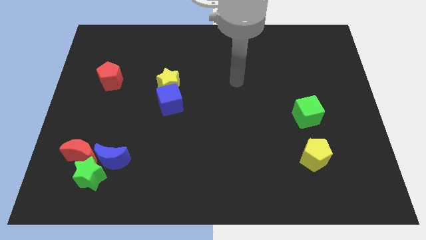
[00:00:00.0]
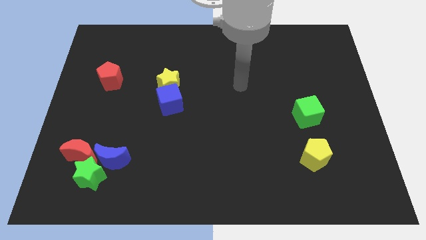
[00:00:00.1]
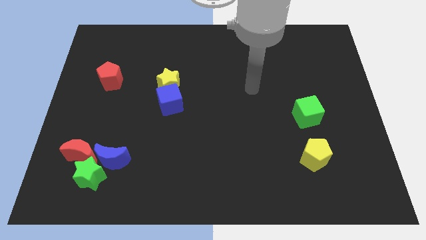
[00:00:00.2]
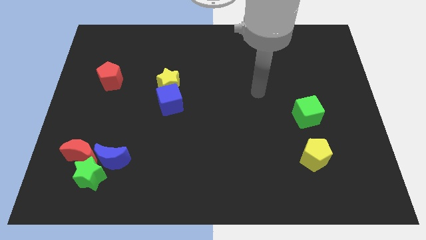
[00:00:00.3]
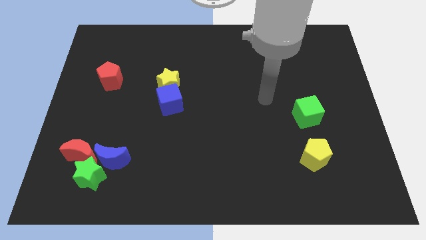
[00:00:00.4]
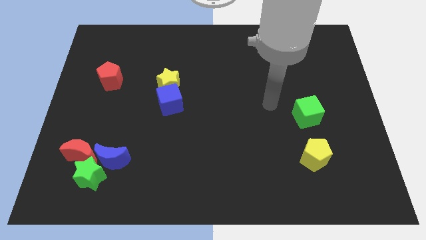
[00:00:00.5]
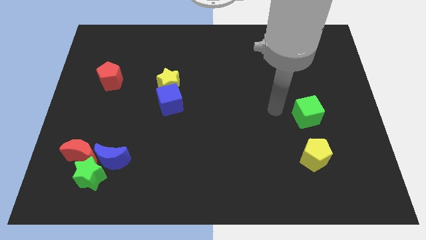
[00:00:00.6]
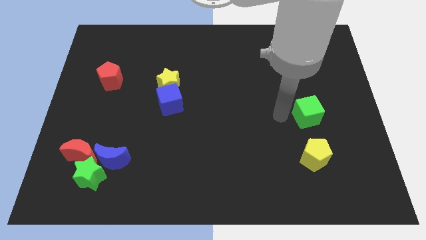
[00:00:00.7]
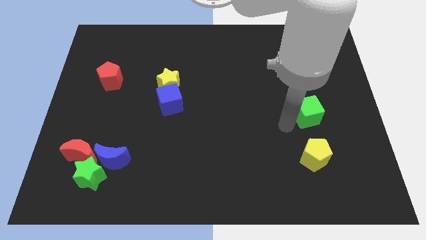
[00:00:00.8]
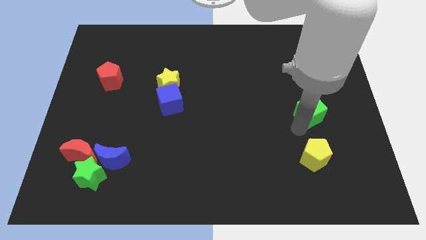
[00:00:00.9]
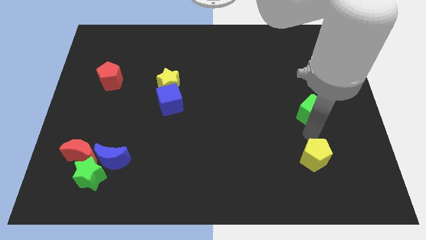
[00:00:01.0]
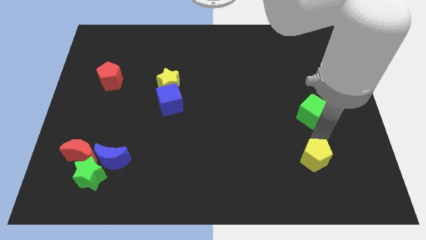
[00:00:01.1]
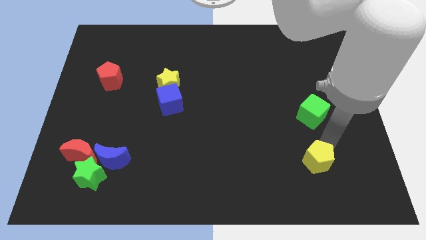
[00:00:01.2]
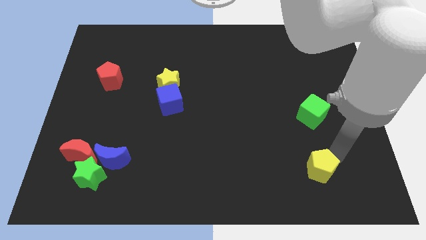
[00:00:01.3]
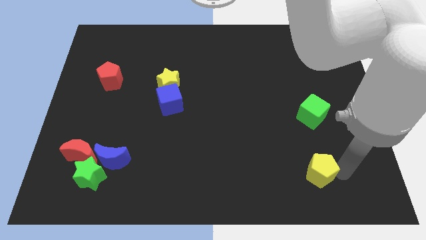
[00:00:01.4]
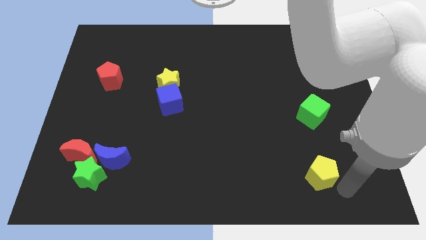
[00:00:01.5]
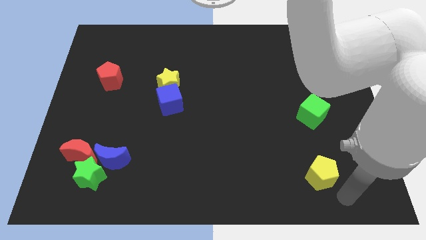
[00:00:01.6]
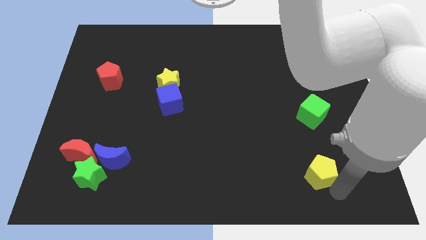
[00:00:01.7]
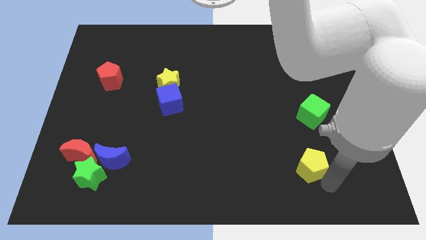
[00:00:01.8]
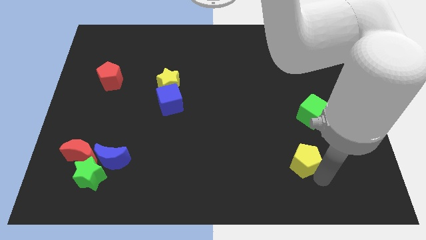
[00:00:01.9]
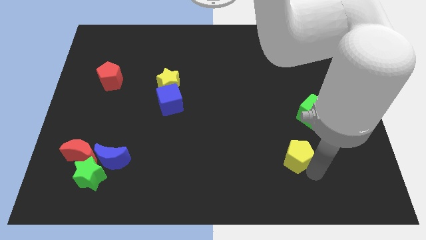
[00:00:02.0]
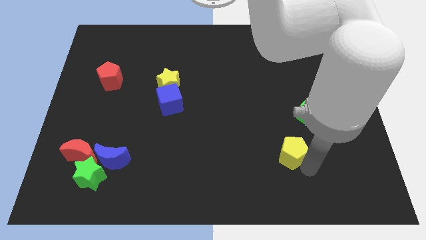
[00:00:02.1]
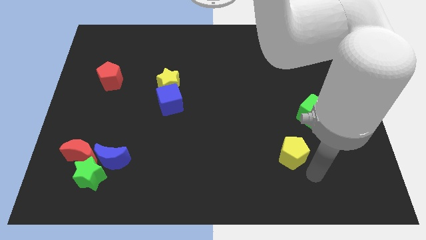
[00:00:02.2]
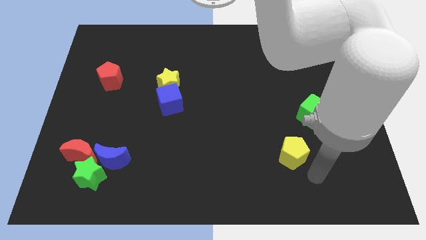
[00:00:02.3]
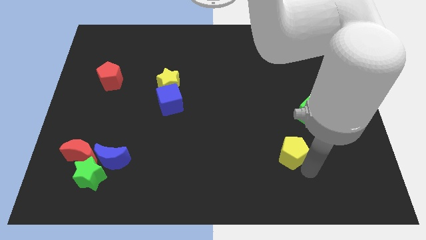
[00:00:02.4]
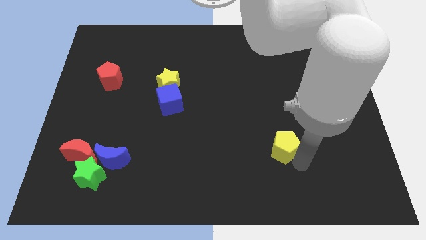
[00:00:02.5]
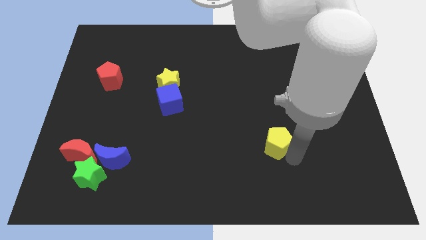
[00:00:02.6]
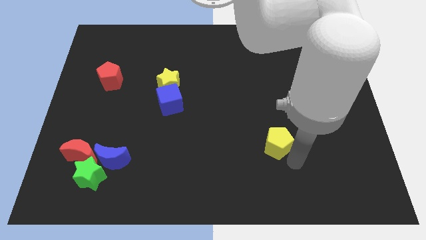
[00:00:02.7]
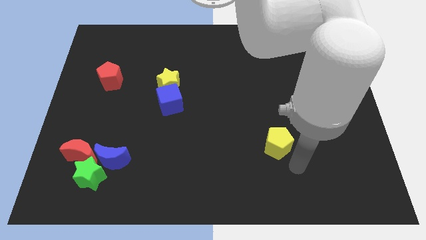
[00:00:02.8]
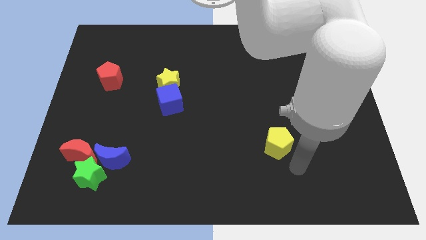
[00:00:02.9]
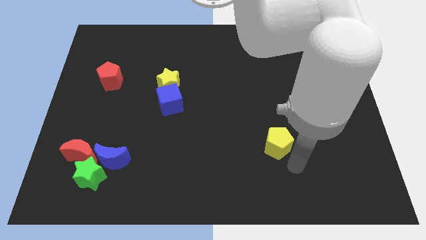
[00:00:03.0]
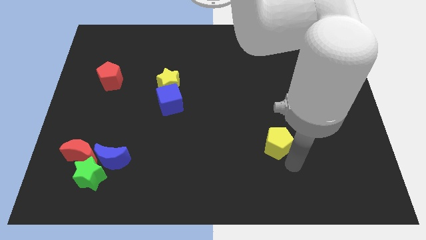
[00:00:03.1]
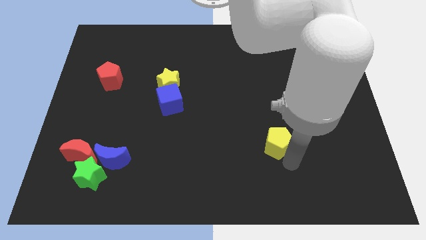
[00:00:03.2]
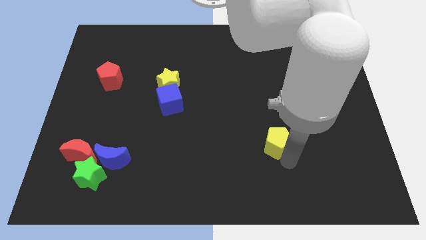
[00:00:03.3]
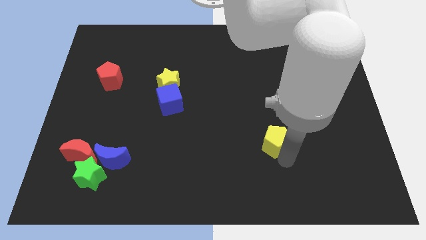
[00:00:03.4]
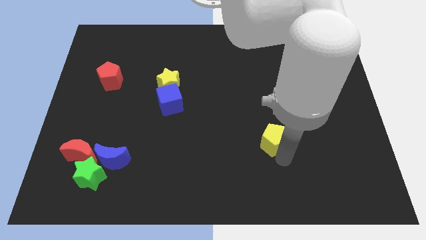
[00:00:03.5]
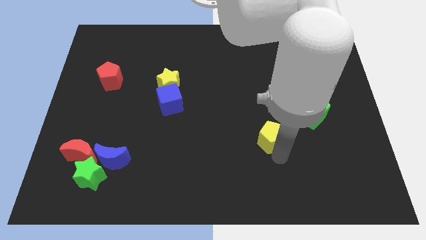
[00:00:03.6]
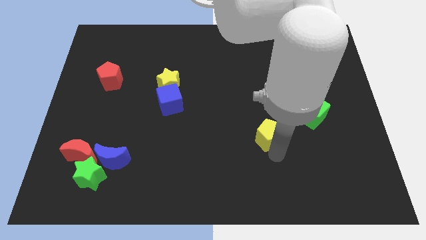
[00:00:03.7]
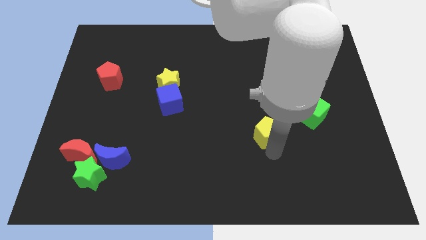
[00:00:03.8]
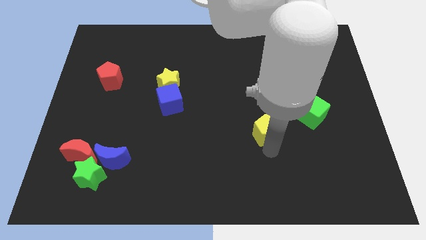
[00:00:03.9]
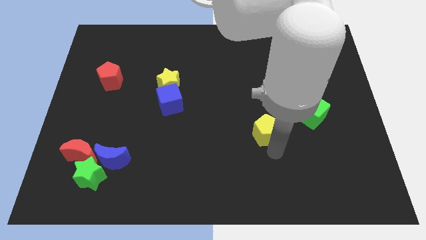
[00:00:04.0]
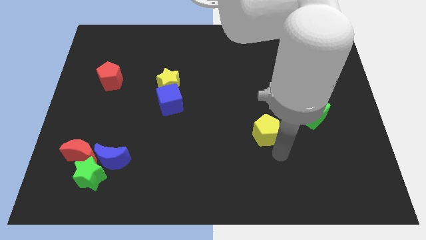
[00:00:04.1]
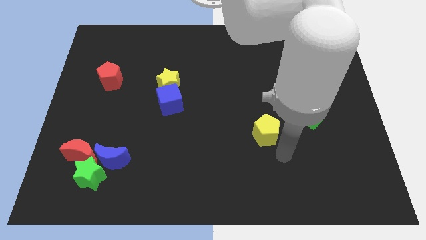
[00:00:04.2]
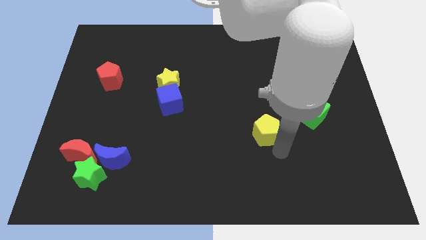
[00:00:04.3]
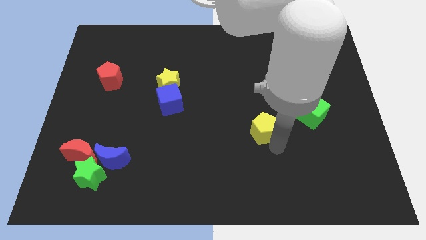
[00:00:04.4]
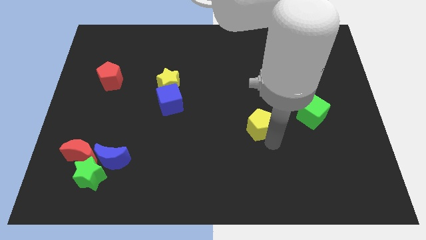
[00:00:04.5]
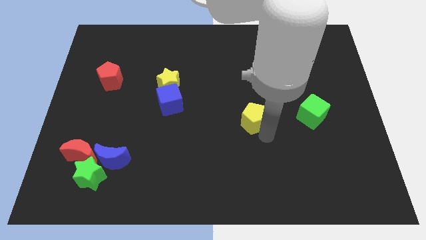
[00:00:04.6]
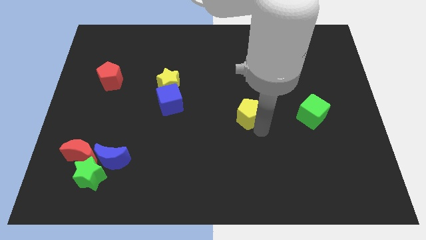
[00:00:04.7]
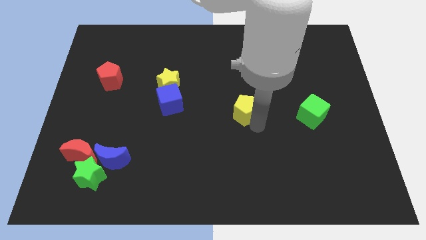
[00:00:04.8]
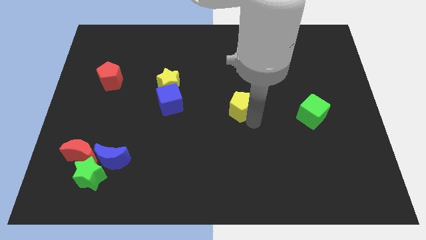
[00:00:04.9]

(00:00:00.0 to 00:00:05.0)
push the yellow pentagon diagonally up and to the left

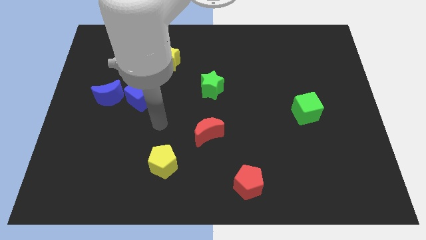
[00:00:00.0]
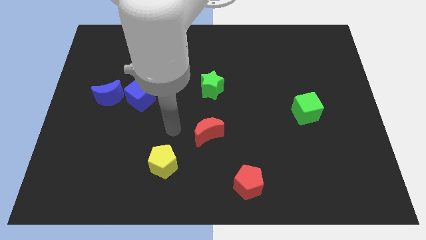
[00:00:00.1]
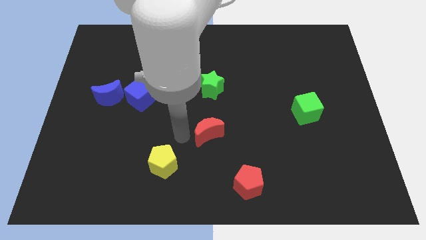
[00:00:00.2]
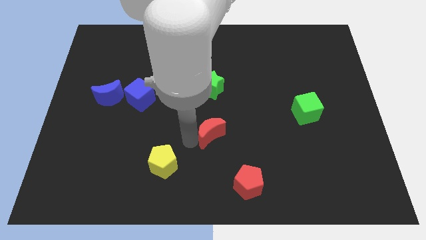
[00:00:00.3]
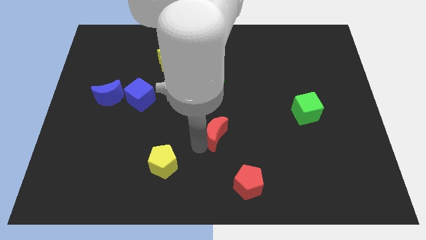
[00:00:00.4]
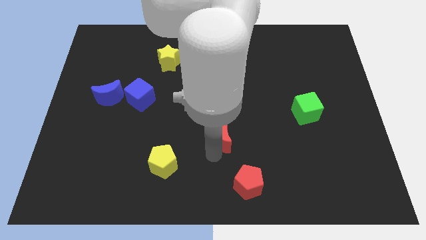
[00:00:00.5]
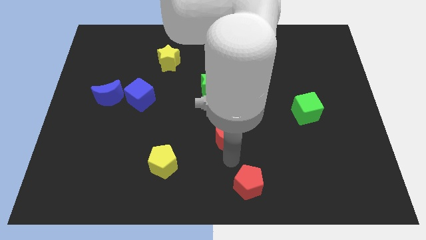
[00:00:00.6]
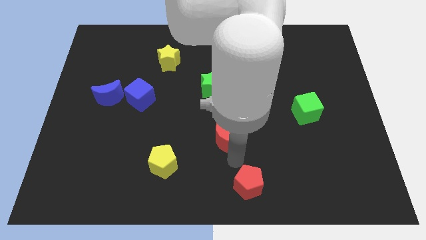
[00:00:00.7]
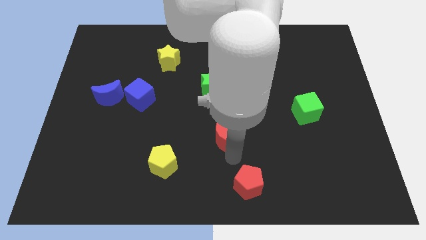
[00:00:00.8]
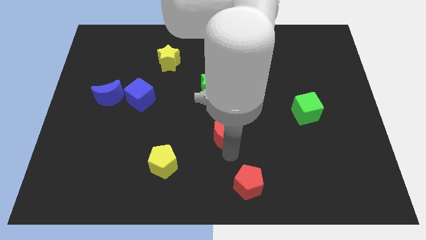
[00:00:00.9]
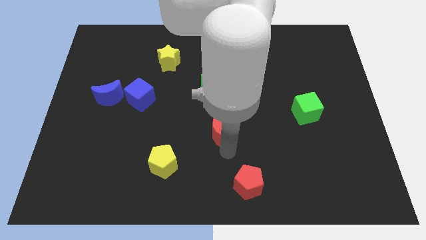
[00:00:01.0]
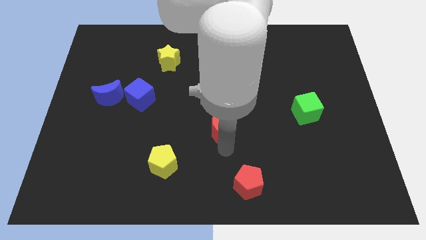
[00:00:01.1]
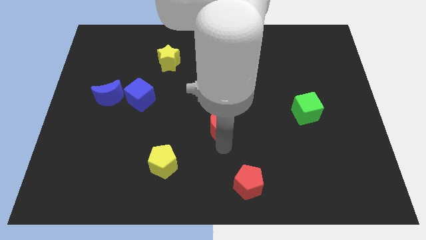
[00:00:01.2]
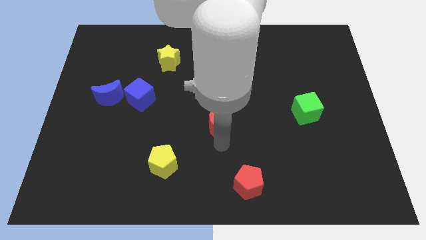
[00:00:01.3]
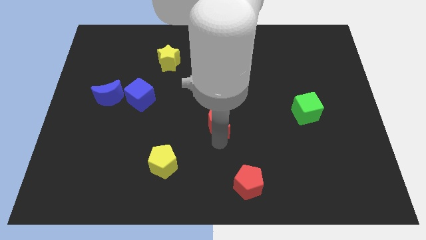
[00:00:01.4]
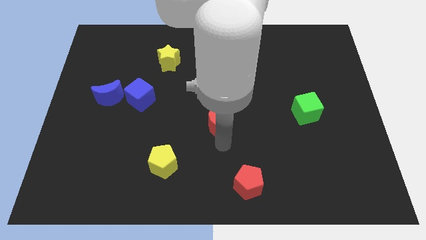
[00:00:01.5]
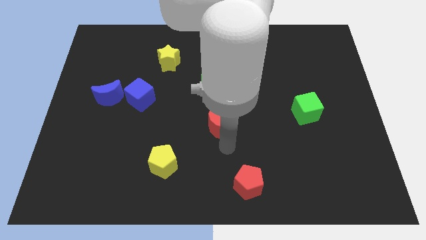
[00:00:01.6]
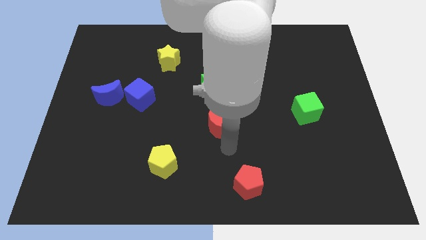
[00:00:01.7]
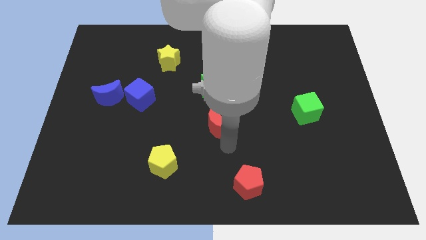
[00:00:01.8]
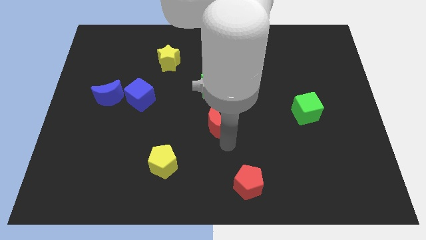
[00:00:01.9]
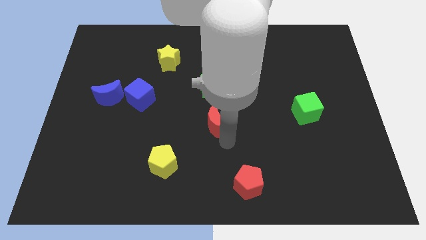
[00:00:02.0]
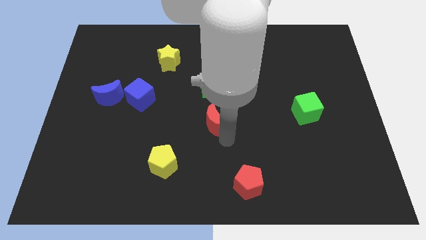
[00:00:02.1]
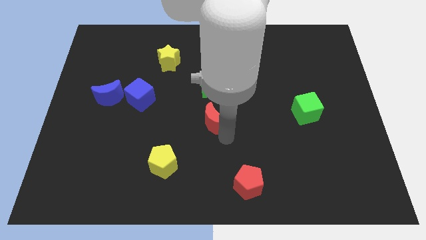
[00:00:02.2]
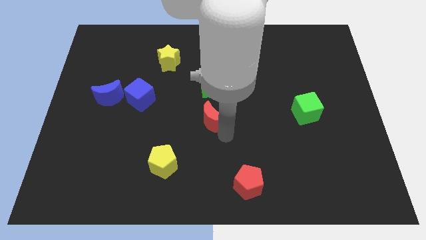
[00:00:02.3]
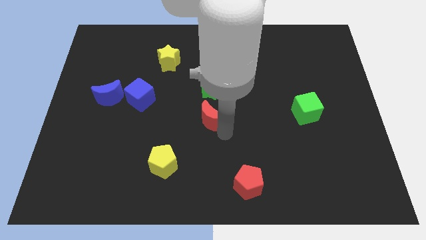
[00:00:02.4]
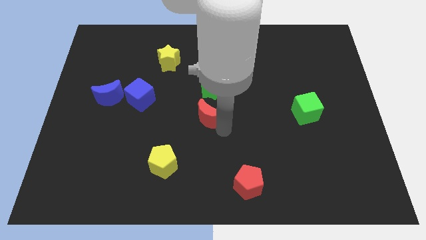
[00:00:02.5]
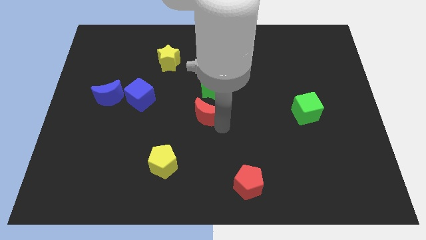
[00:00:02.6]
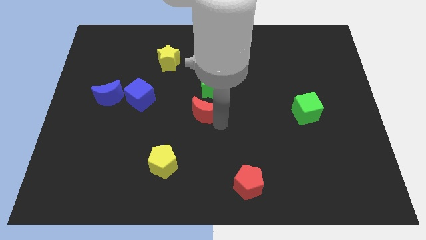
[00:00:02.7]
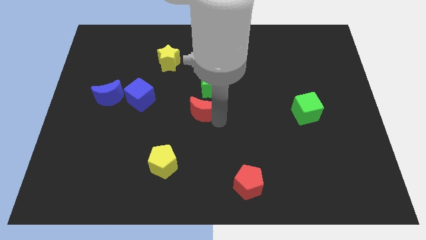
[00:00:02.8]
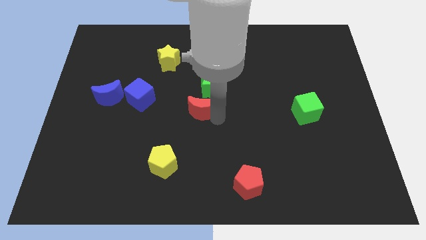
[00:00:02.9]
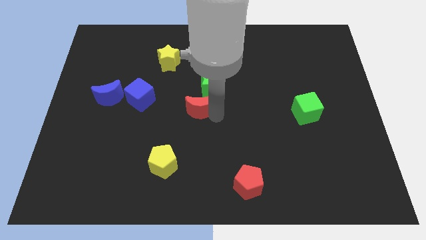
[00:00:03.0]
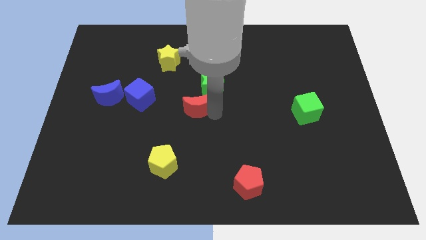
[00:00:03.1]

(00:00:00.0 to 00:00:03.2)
move the red moon a bit upwards
